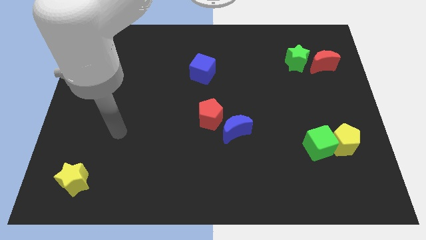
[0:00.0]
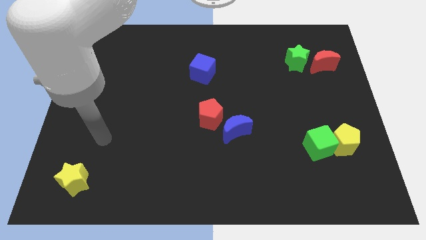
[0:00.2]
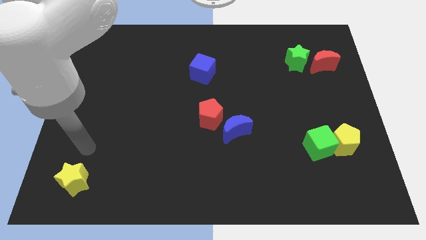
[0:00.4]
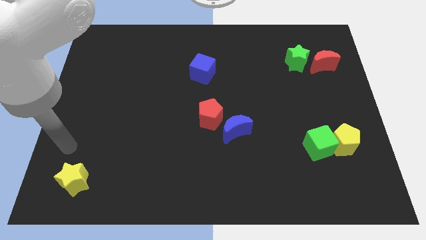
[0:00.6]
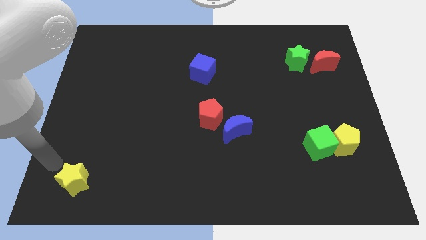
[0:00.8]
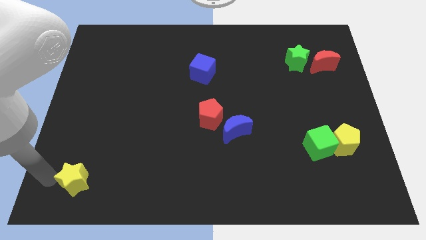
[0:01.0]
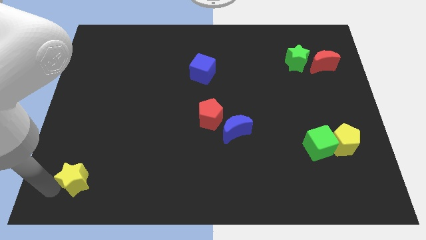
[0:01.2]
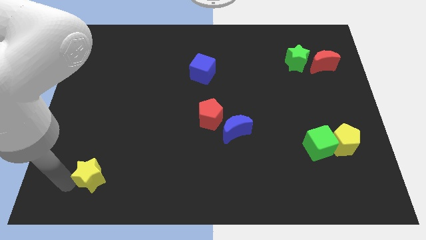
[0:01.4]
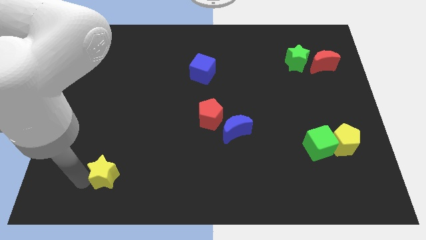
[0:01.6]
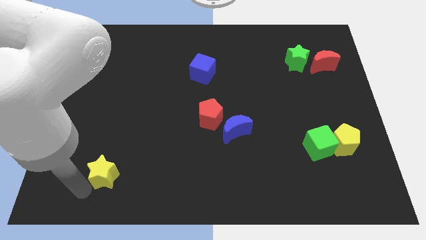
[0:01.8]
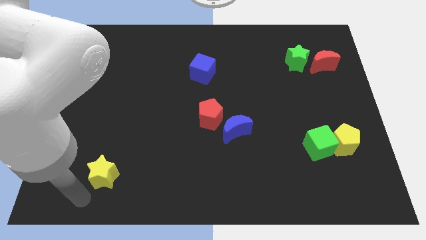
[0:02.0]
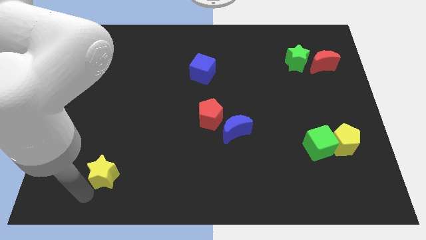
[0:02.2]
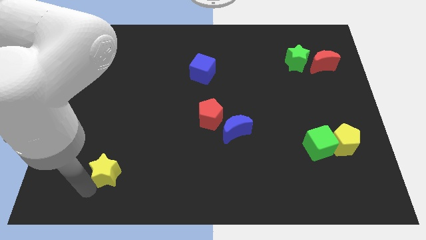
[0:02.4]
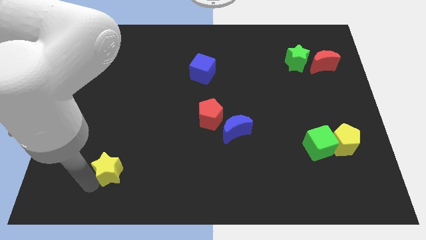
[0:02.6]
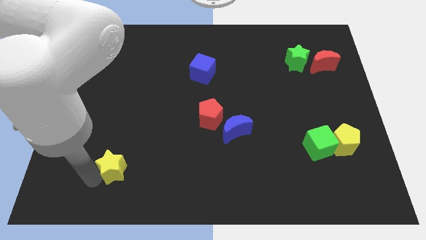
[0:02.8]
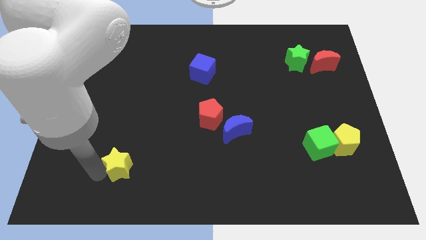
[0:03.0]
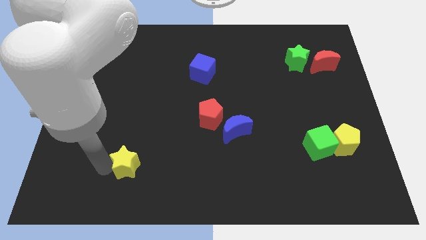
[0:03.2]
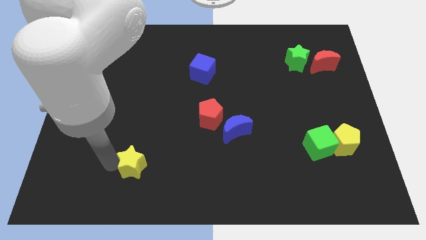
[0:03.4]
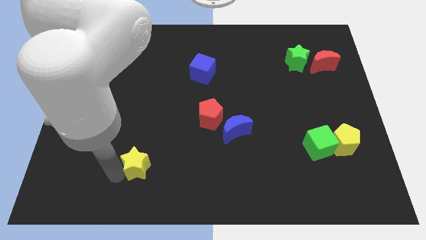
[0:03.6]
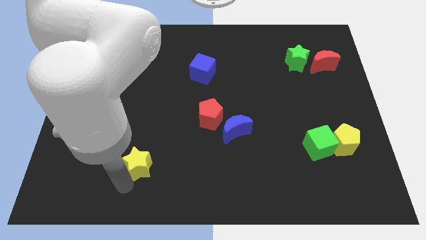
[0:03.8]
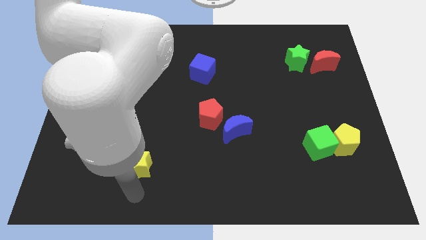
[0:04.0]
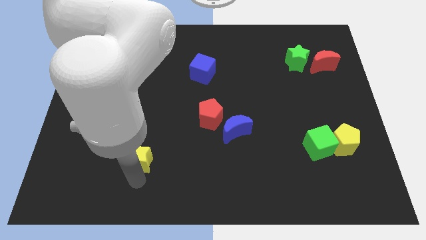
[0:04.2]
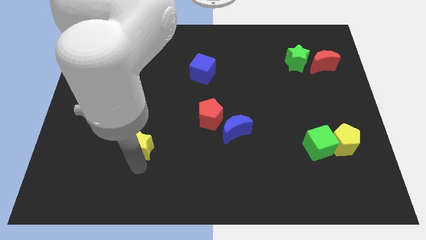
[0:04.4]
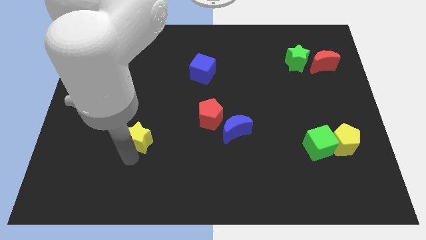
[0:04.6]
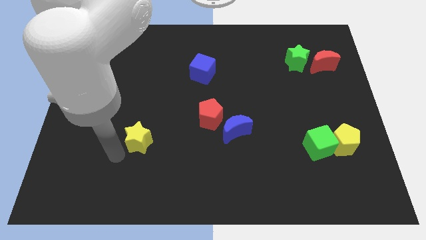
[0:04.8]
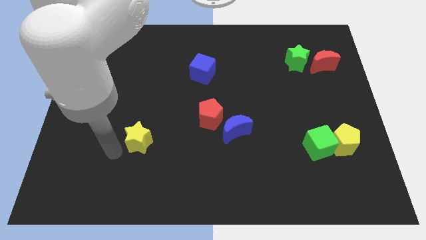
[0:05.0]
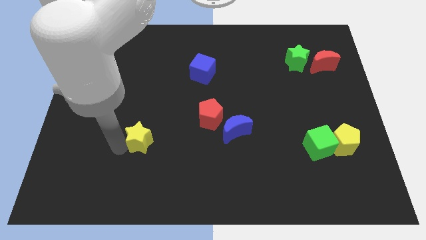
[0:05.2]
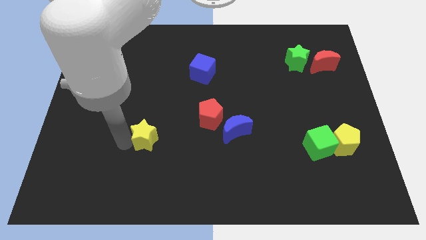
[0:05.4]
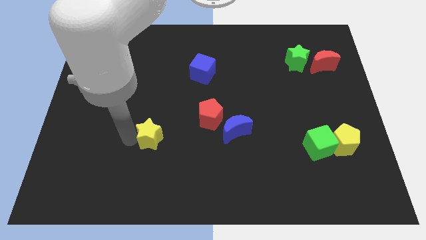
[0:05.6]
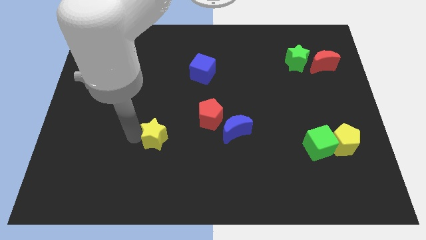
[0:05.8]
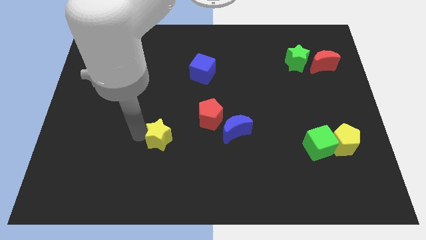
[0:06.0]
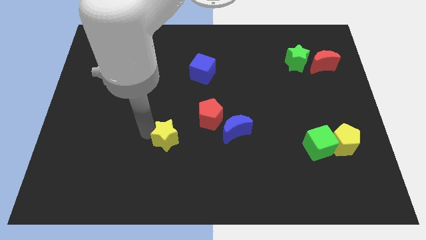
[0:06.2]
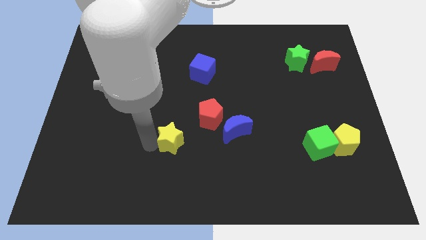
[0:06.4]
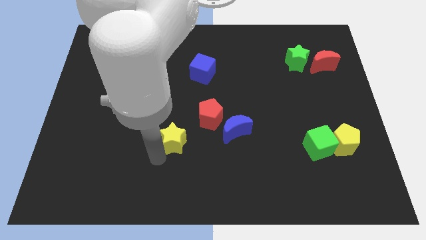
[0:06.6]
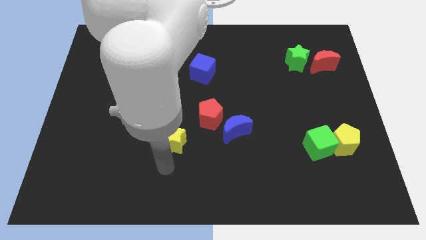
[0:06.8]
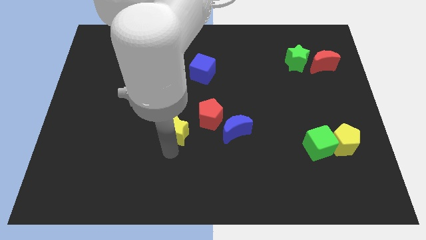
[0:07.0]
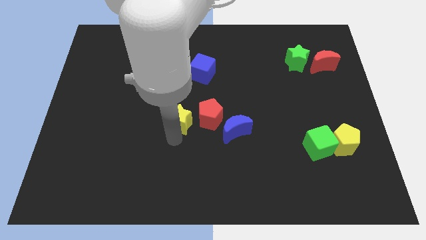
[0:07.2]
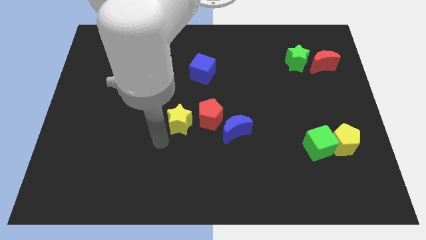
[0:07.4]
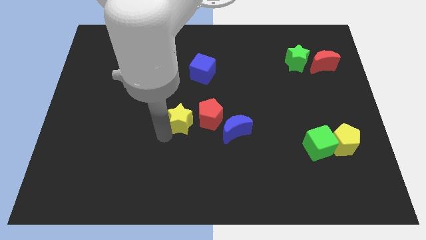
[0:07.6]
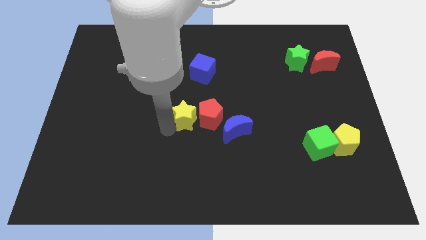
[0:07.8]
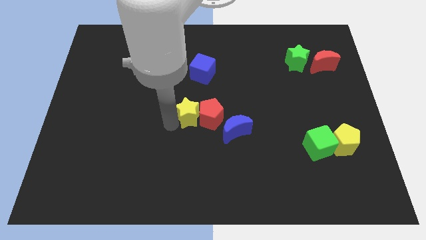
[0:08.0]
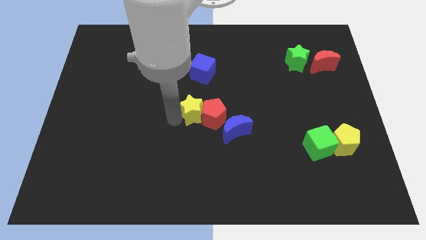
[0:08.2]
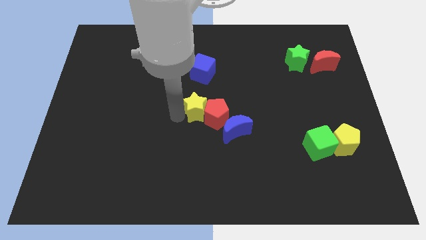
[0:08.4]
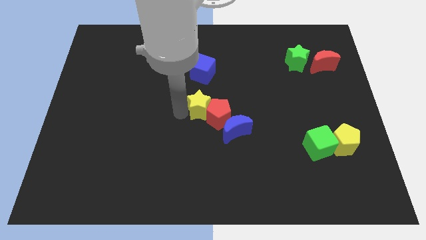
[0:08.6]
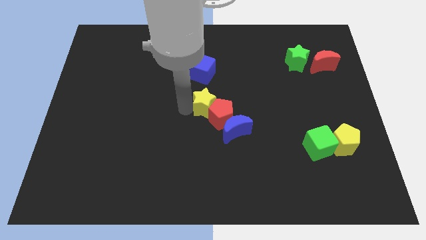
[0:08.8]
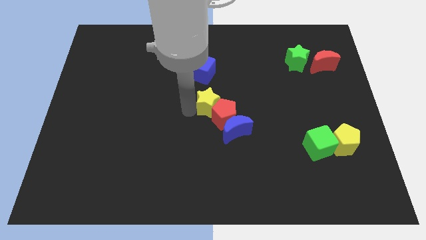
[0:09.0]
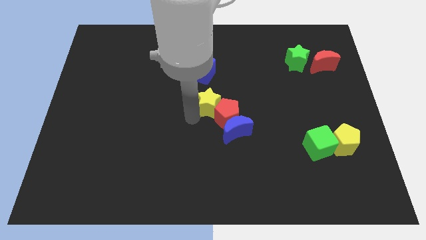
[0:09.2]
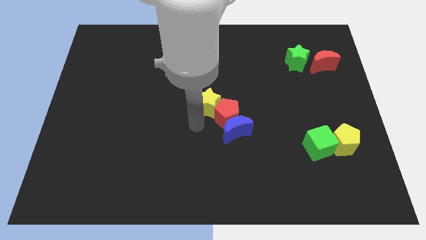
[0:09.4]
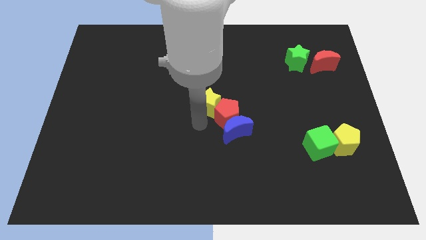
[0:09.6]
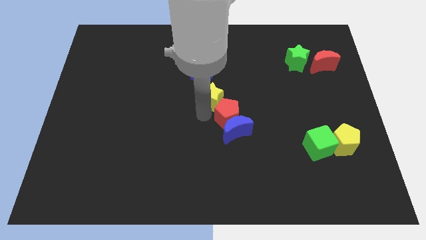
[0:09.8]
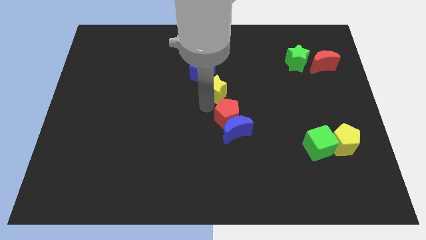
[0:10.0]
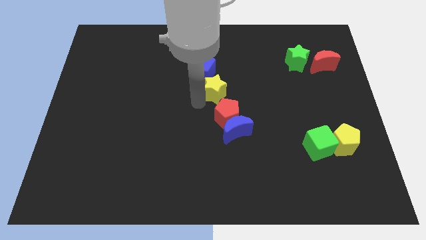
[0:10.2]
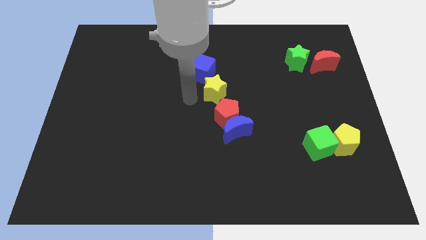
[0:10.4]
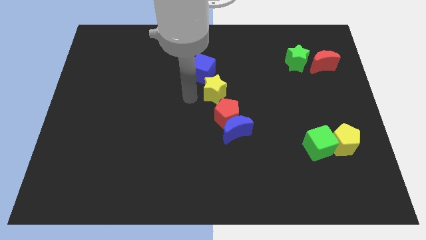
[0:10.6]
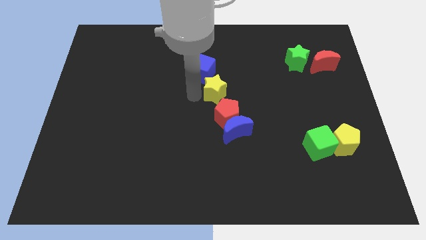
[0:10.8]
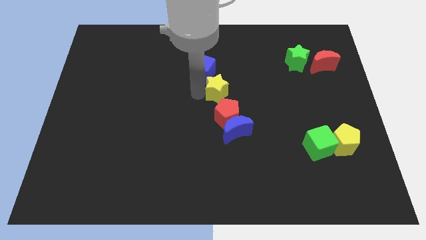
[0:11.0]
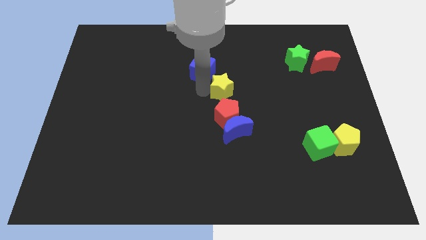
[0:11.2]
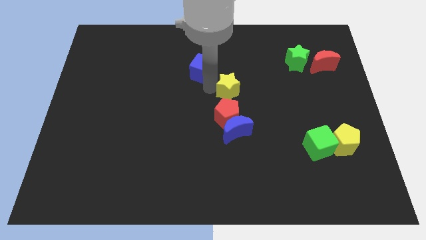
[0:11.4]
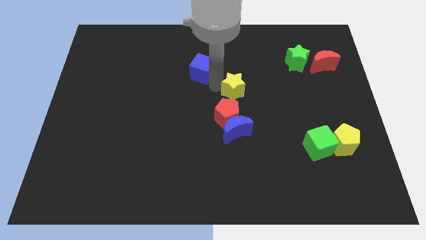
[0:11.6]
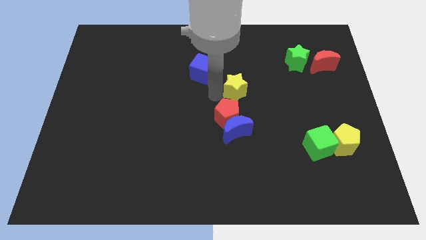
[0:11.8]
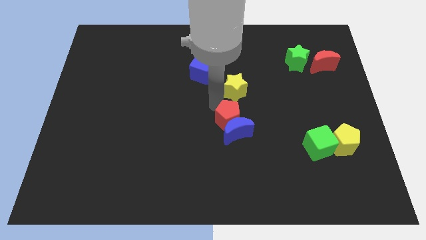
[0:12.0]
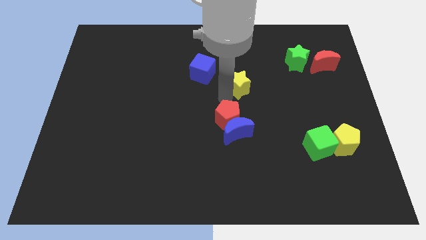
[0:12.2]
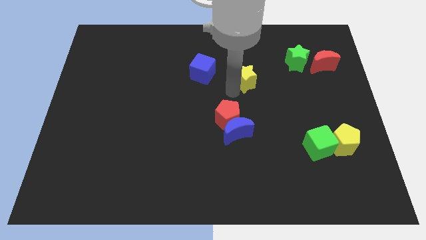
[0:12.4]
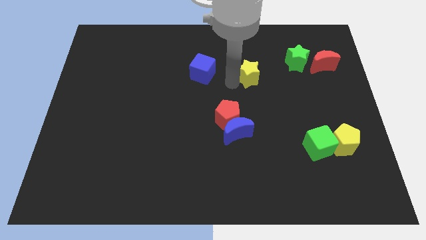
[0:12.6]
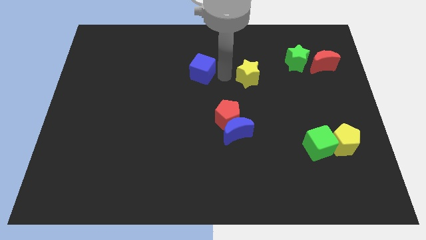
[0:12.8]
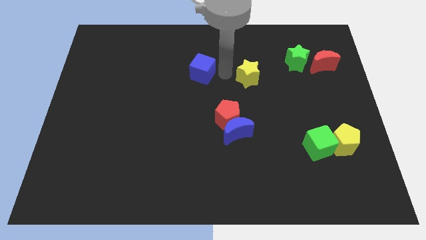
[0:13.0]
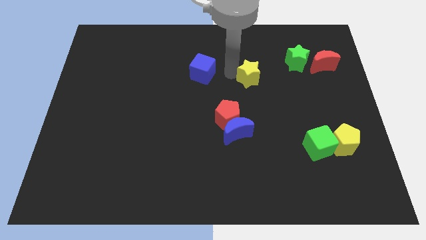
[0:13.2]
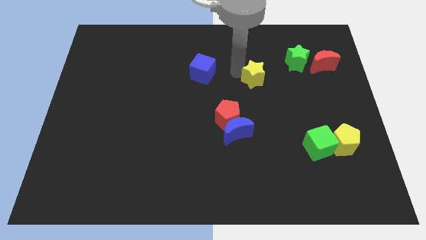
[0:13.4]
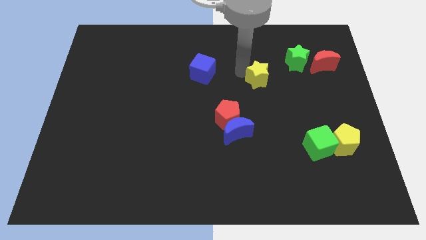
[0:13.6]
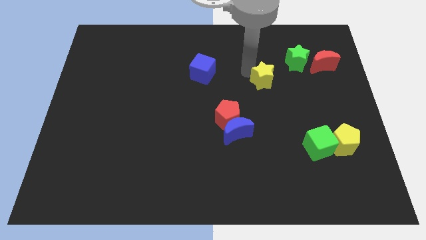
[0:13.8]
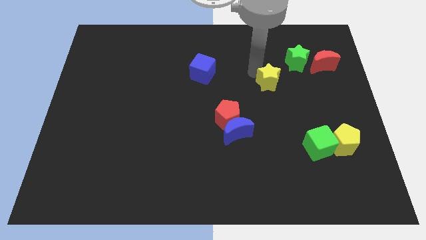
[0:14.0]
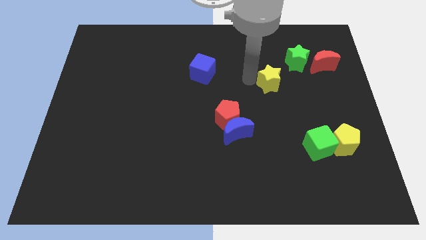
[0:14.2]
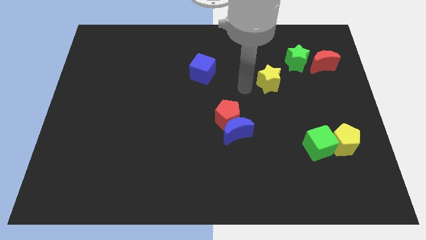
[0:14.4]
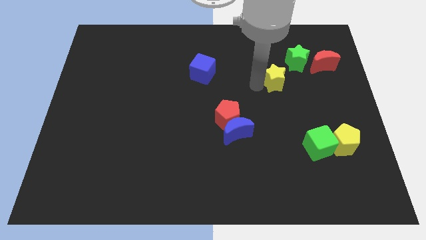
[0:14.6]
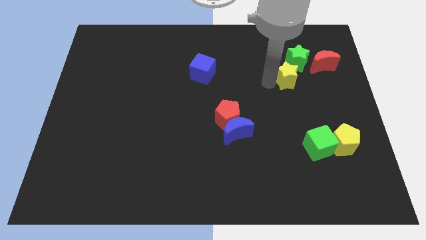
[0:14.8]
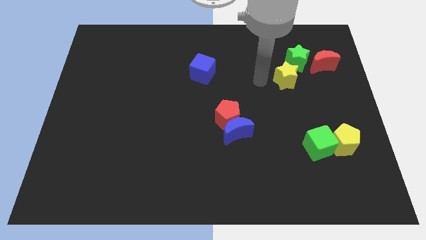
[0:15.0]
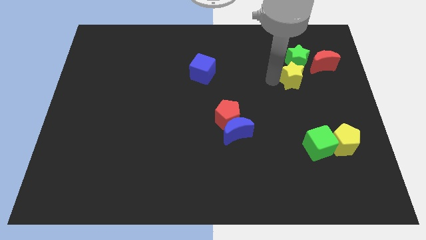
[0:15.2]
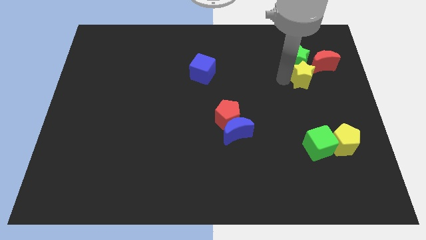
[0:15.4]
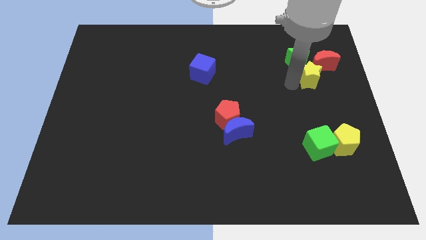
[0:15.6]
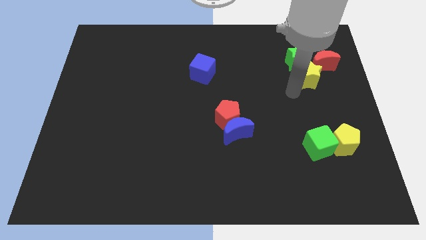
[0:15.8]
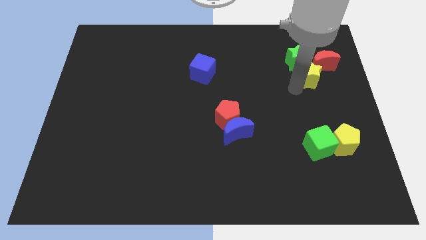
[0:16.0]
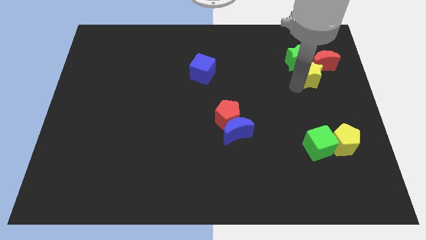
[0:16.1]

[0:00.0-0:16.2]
slide the yellow star close to the red moon
